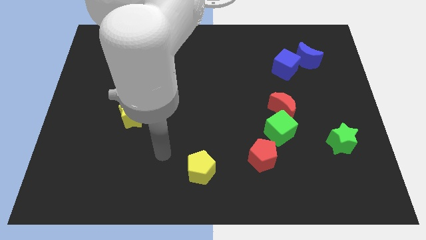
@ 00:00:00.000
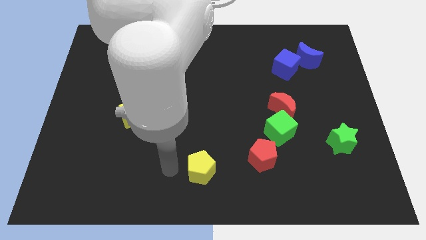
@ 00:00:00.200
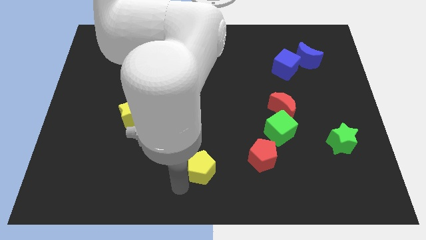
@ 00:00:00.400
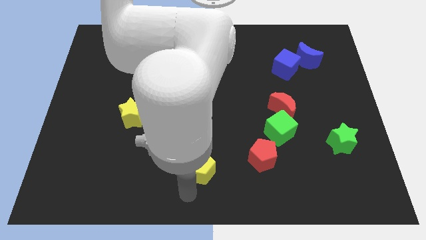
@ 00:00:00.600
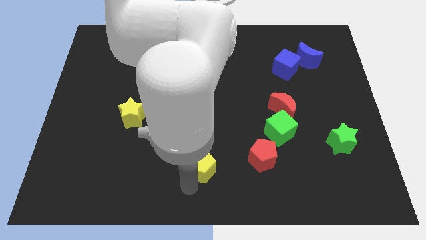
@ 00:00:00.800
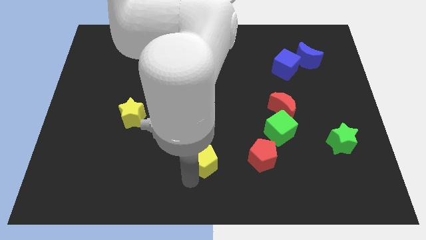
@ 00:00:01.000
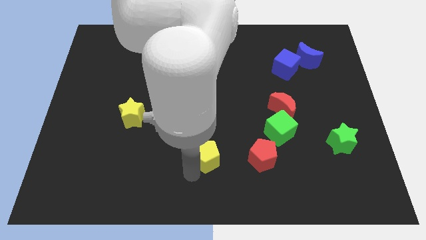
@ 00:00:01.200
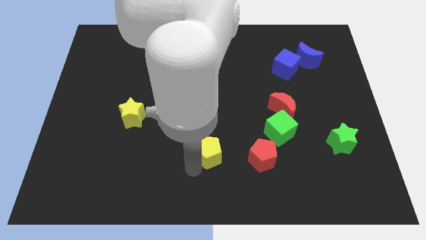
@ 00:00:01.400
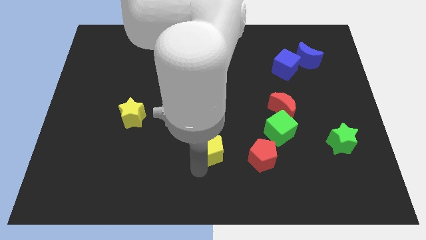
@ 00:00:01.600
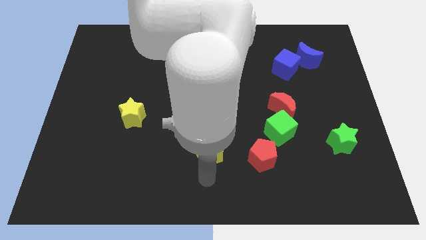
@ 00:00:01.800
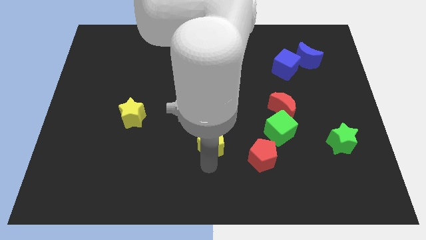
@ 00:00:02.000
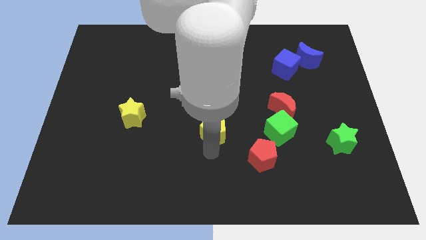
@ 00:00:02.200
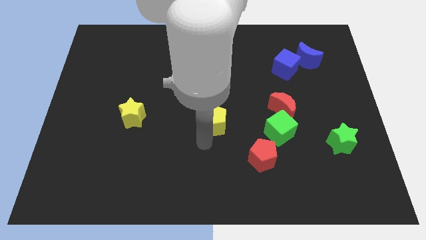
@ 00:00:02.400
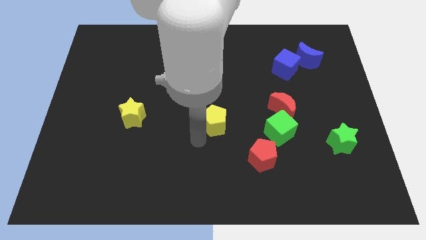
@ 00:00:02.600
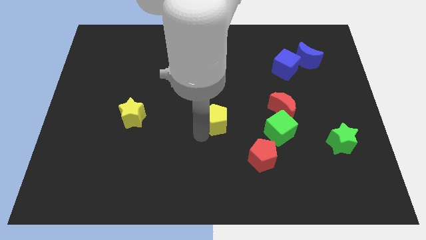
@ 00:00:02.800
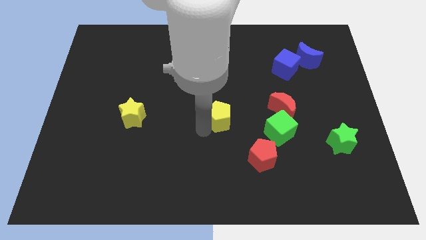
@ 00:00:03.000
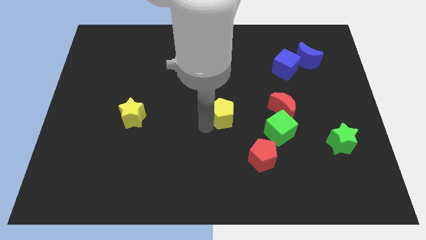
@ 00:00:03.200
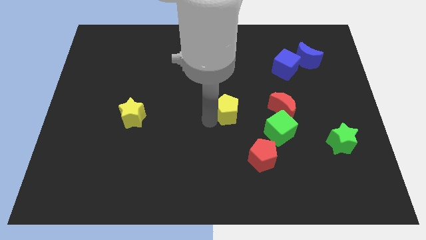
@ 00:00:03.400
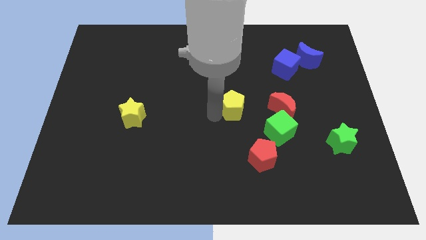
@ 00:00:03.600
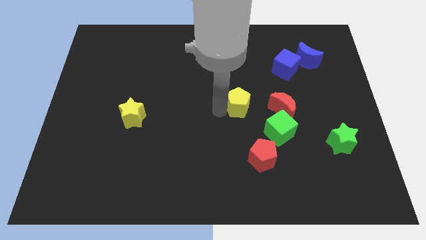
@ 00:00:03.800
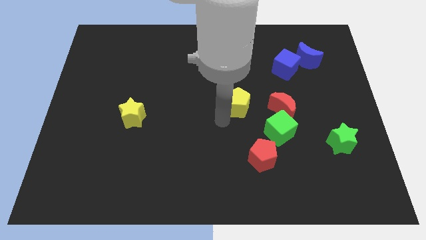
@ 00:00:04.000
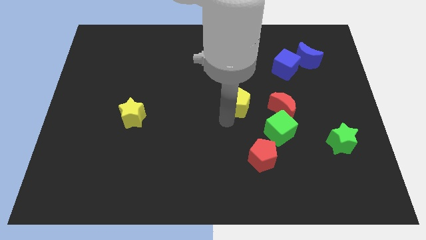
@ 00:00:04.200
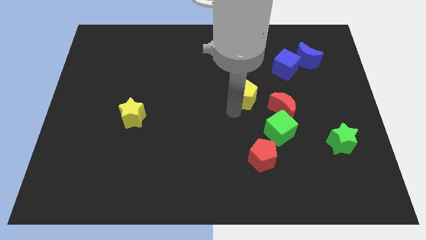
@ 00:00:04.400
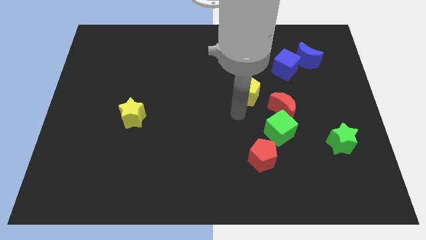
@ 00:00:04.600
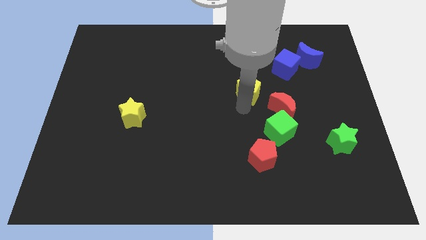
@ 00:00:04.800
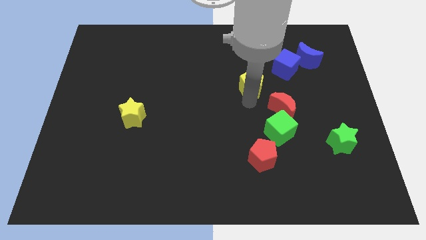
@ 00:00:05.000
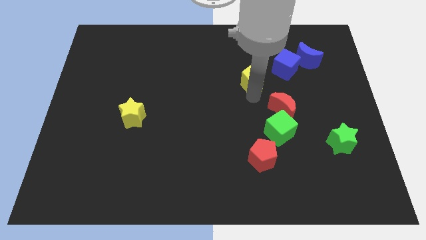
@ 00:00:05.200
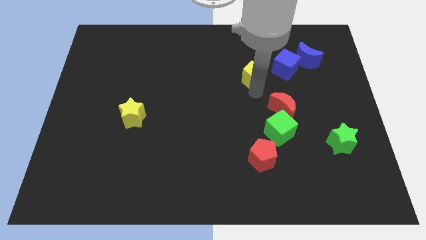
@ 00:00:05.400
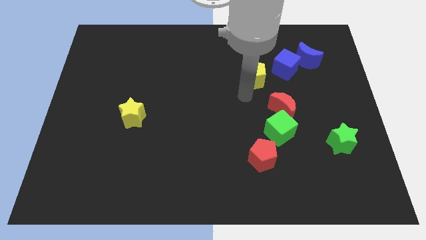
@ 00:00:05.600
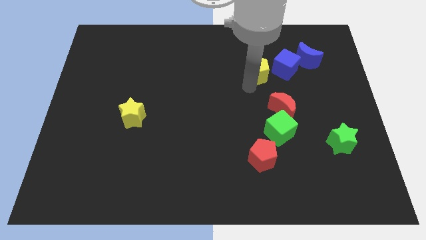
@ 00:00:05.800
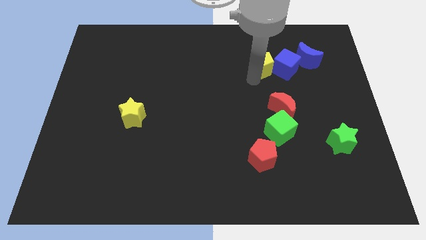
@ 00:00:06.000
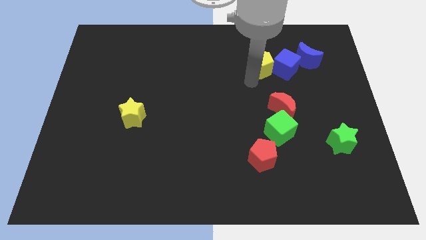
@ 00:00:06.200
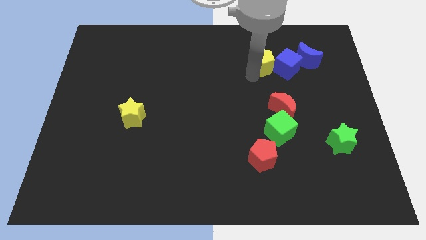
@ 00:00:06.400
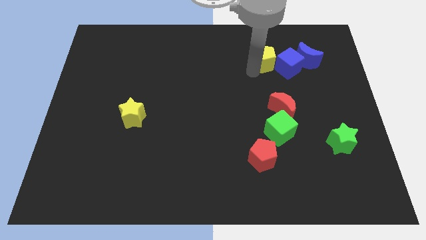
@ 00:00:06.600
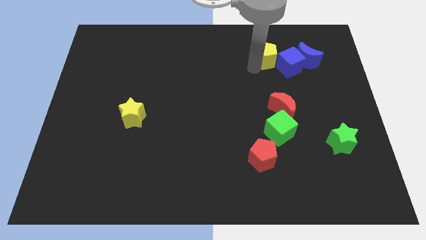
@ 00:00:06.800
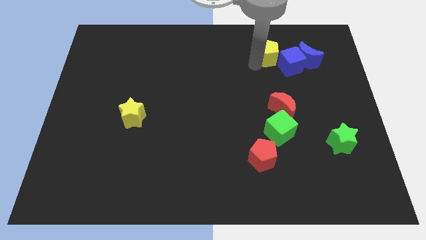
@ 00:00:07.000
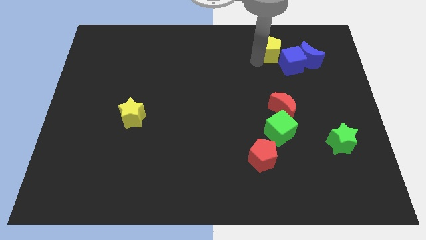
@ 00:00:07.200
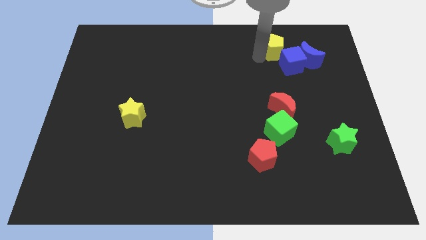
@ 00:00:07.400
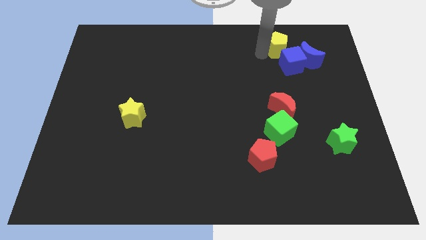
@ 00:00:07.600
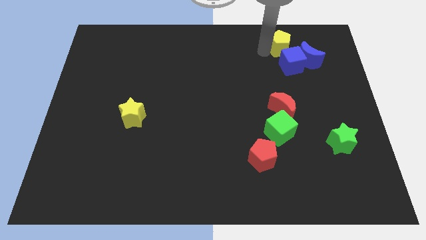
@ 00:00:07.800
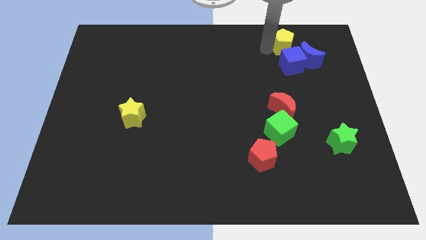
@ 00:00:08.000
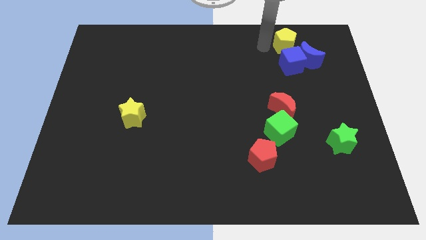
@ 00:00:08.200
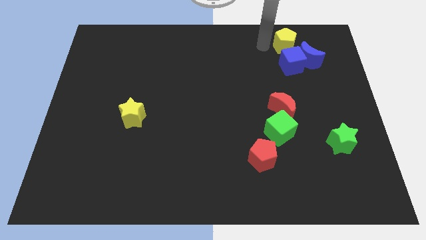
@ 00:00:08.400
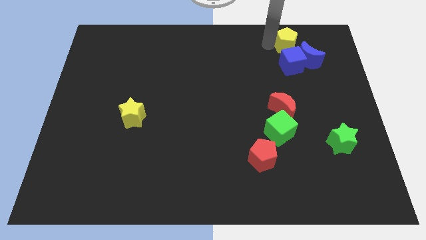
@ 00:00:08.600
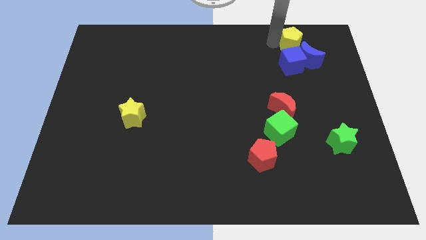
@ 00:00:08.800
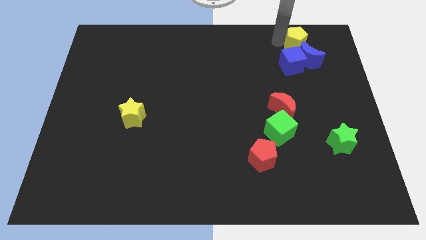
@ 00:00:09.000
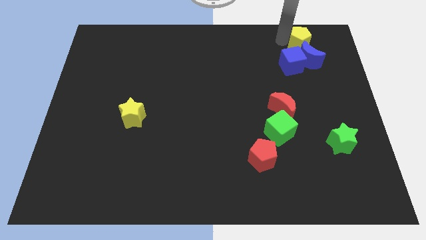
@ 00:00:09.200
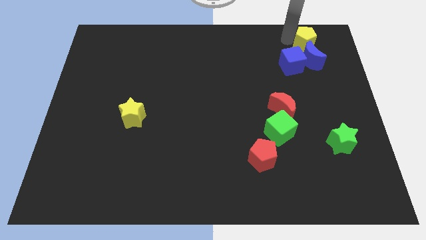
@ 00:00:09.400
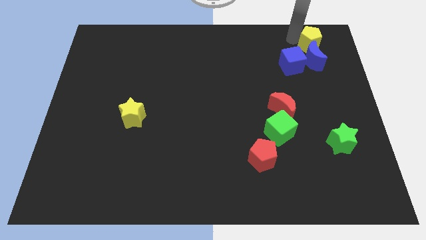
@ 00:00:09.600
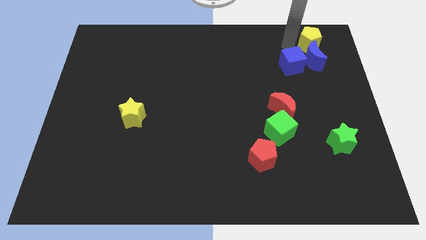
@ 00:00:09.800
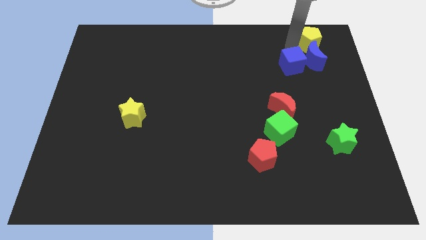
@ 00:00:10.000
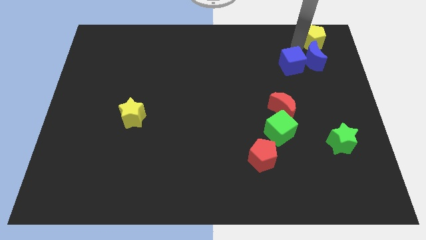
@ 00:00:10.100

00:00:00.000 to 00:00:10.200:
slide the yellow pentagon to the top right

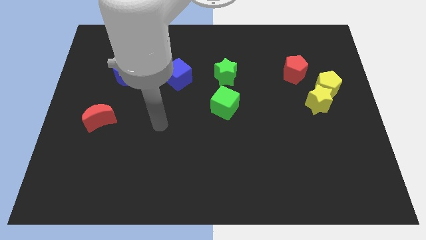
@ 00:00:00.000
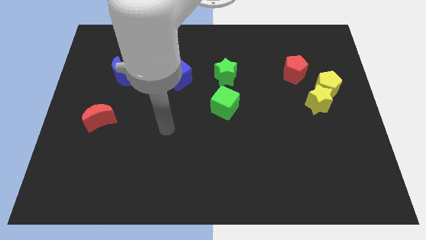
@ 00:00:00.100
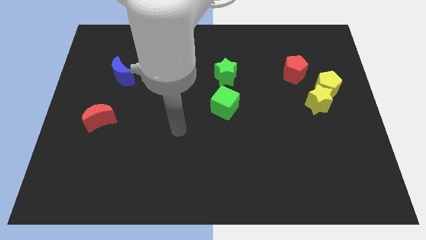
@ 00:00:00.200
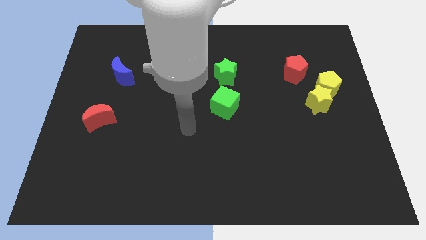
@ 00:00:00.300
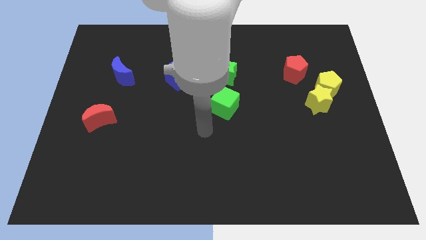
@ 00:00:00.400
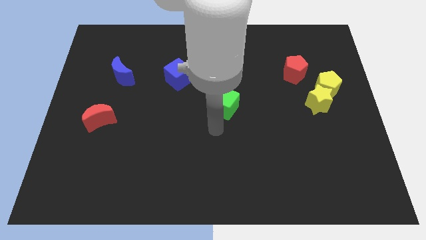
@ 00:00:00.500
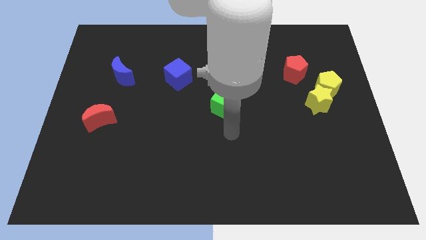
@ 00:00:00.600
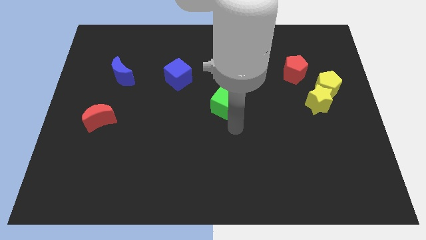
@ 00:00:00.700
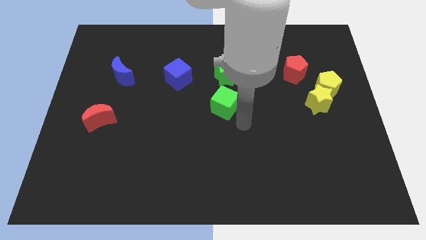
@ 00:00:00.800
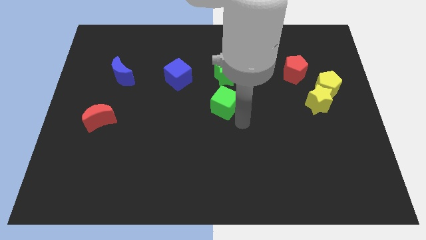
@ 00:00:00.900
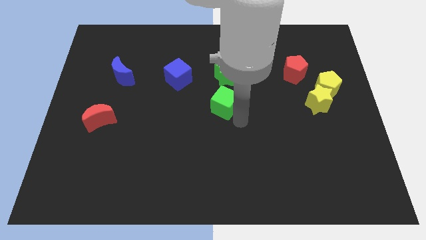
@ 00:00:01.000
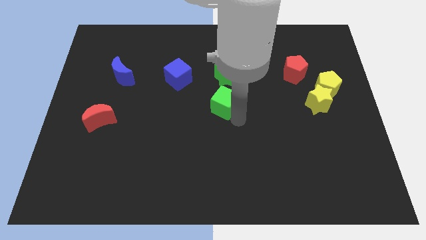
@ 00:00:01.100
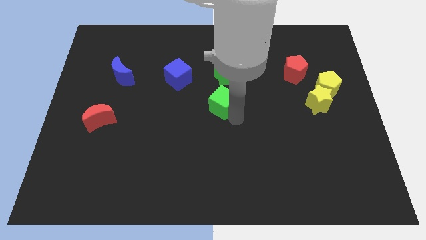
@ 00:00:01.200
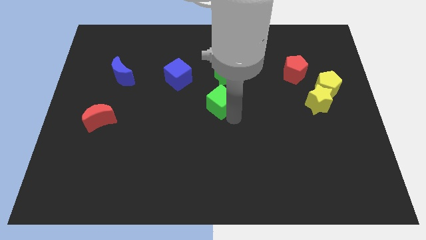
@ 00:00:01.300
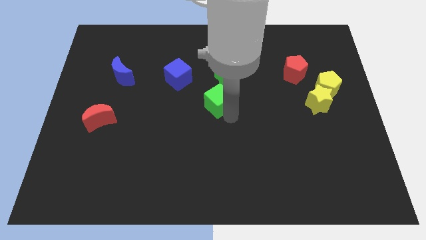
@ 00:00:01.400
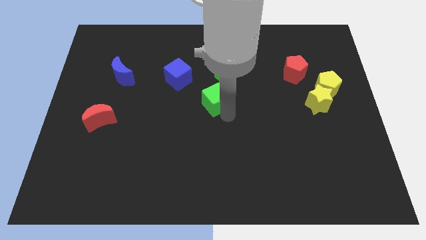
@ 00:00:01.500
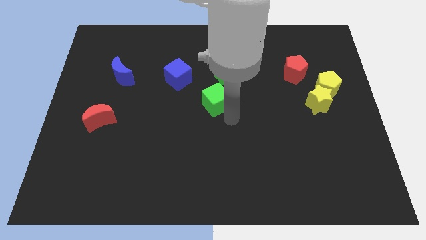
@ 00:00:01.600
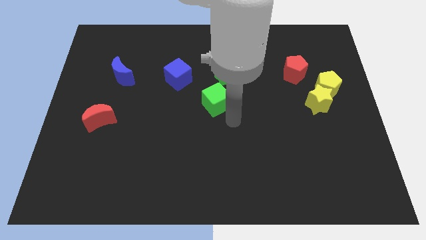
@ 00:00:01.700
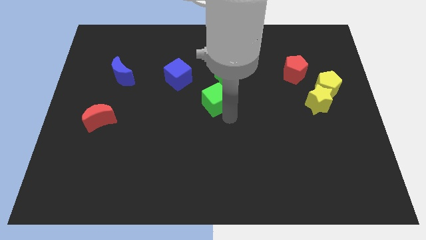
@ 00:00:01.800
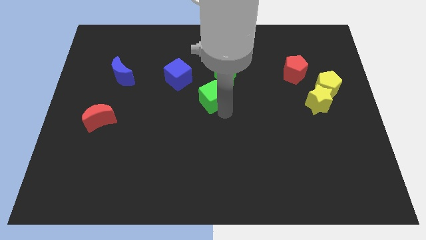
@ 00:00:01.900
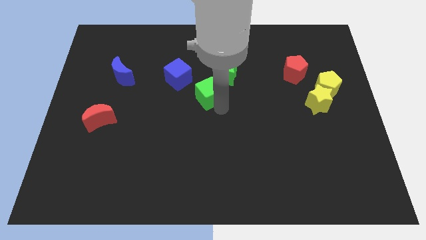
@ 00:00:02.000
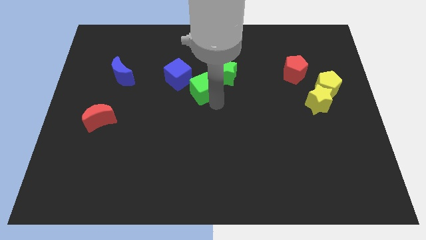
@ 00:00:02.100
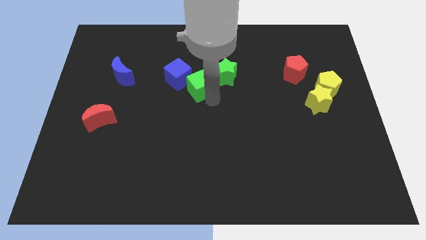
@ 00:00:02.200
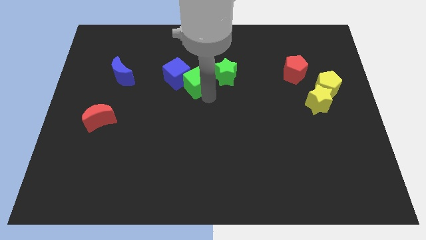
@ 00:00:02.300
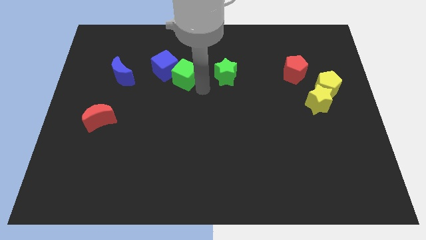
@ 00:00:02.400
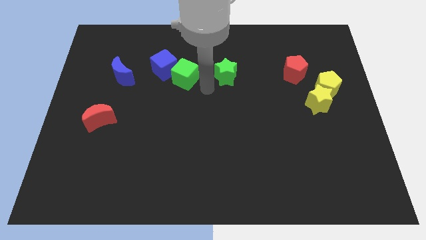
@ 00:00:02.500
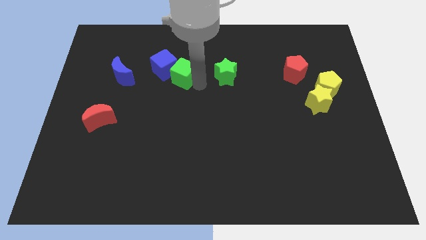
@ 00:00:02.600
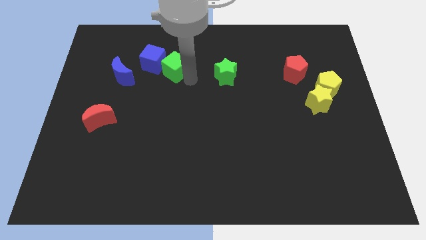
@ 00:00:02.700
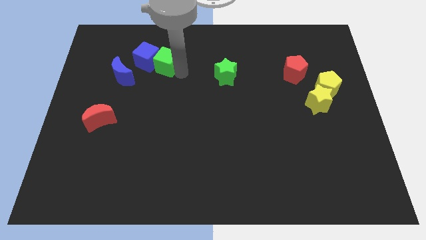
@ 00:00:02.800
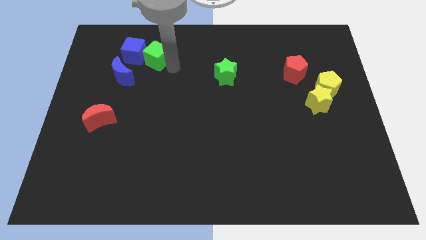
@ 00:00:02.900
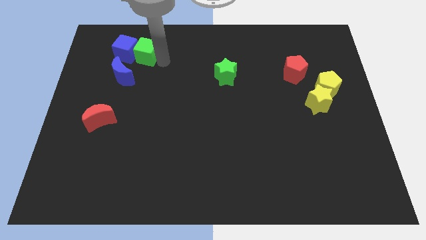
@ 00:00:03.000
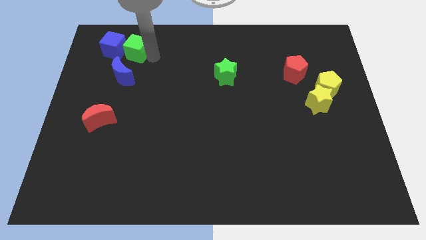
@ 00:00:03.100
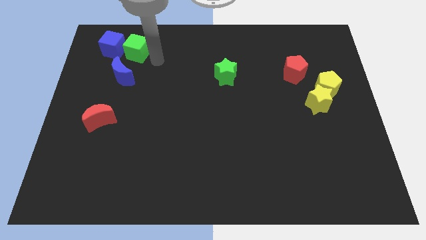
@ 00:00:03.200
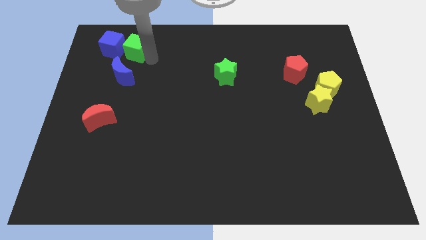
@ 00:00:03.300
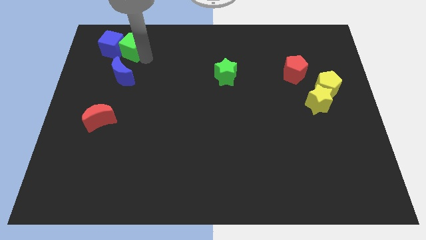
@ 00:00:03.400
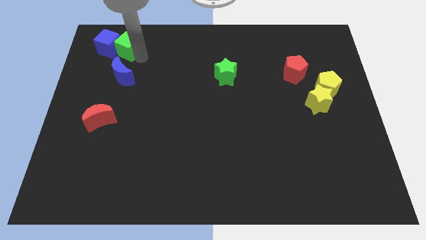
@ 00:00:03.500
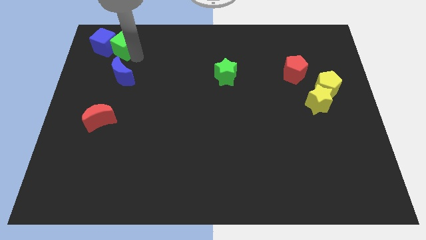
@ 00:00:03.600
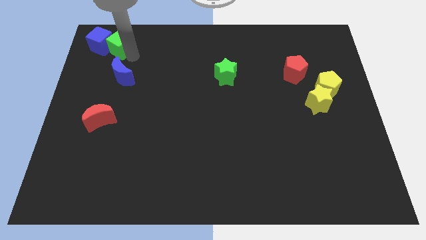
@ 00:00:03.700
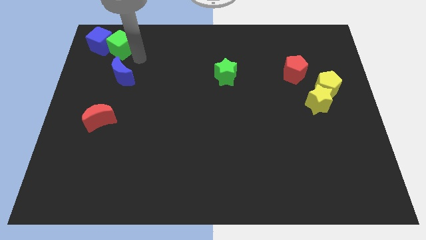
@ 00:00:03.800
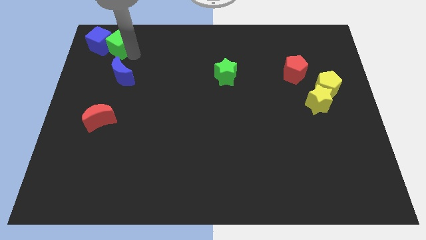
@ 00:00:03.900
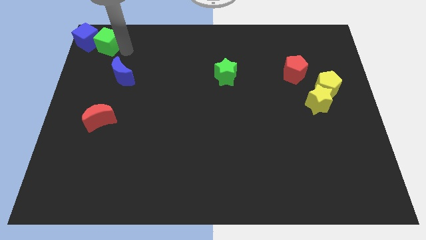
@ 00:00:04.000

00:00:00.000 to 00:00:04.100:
put the green cube to the top left of the board
